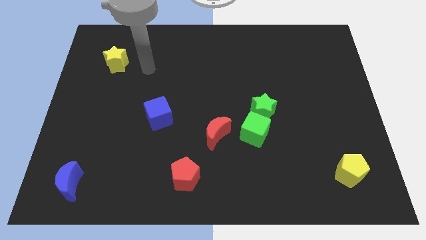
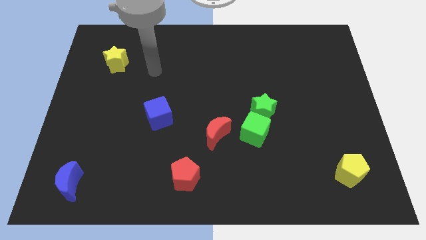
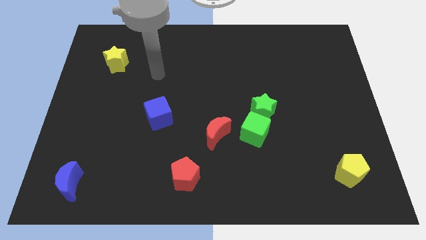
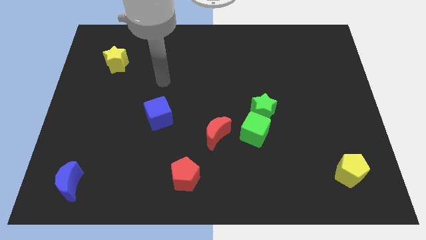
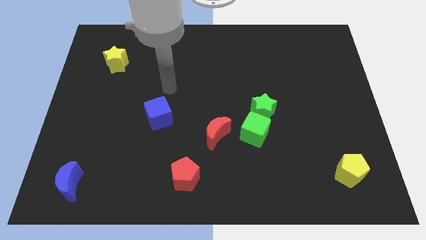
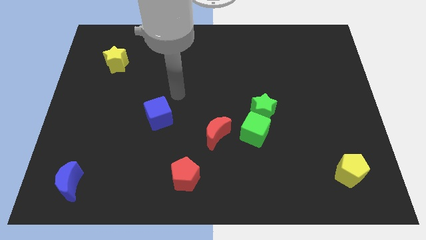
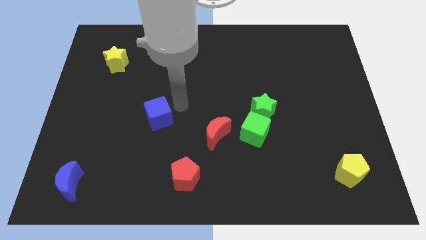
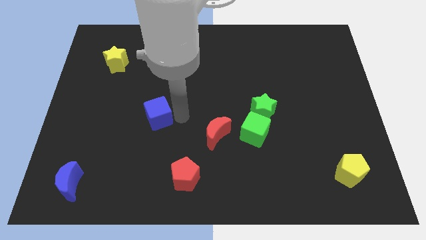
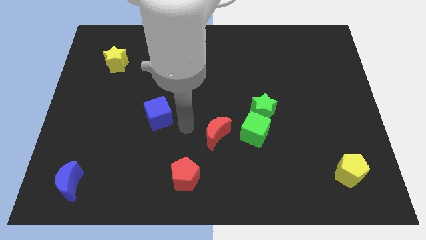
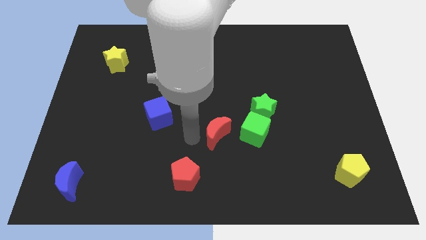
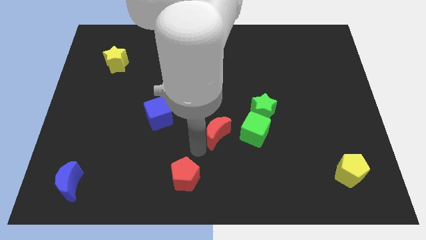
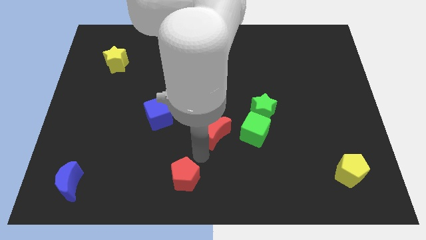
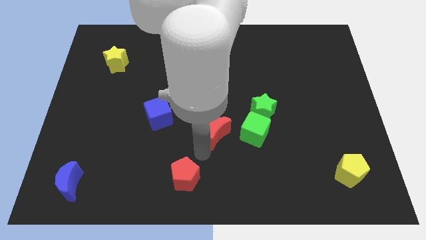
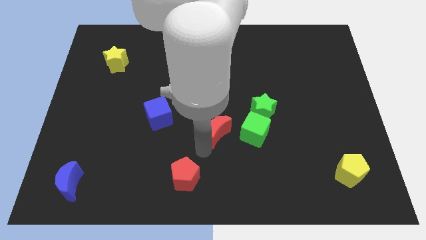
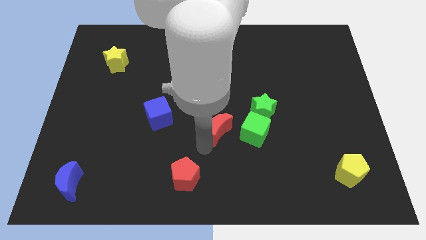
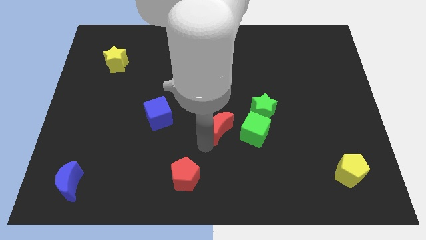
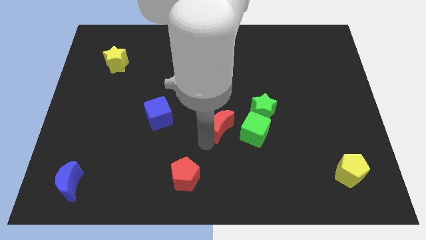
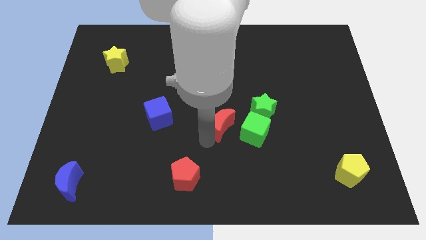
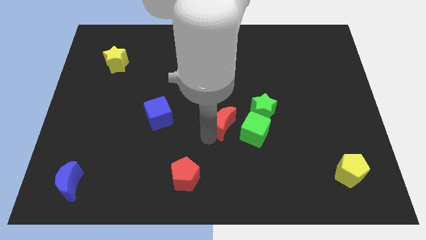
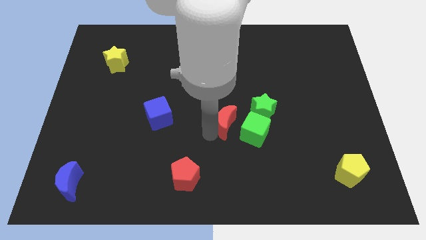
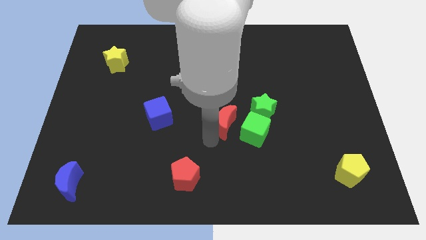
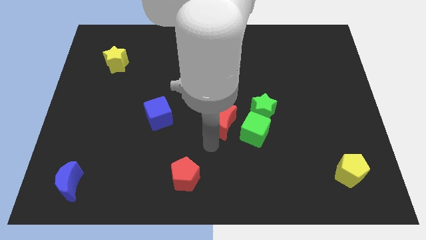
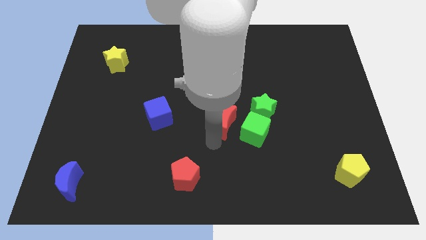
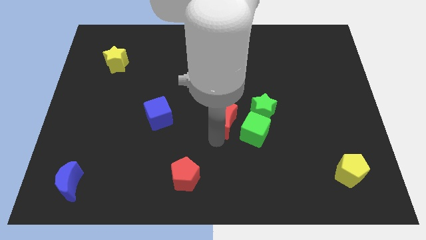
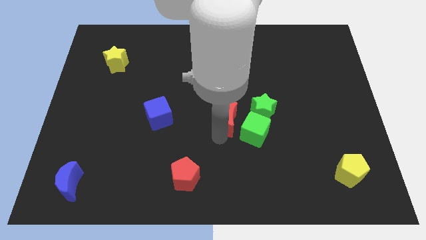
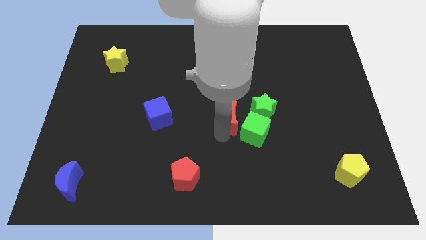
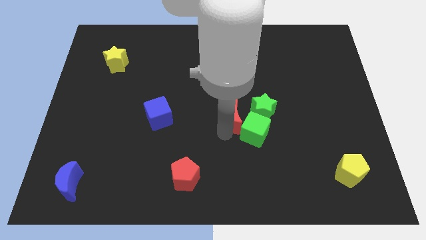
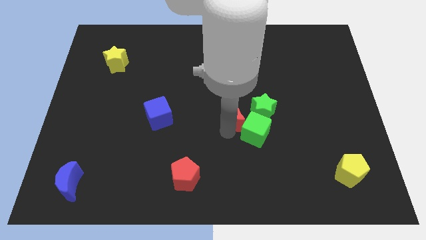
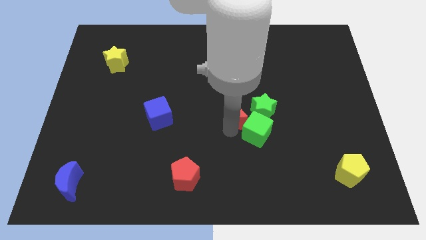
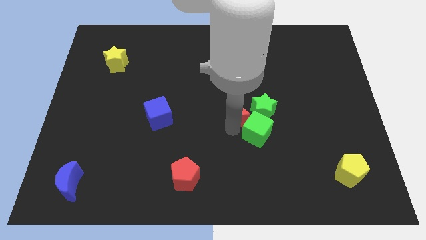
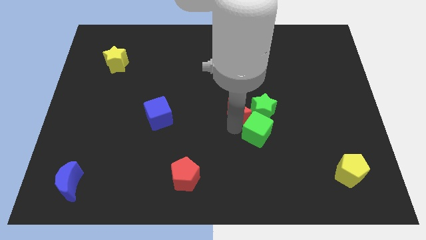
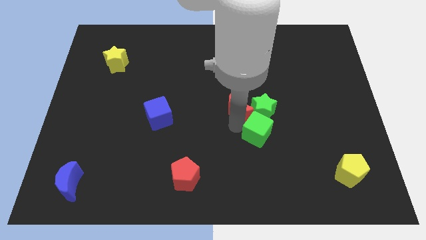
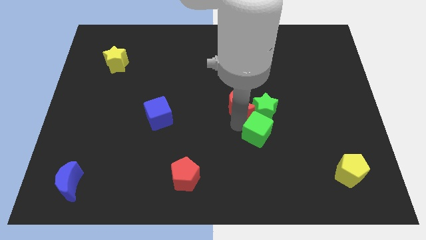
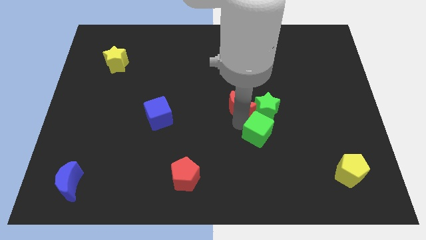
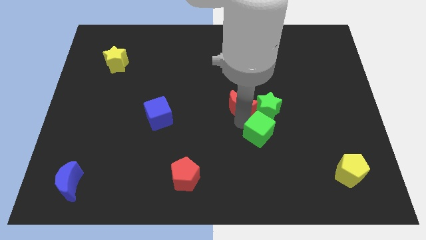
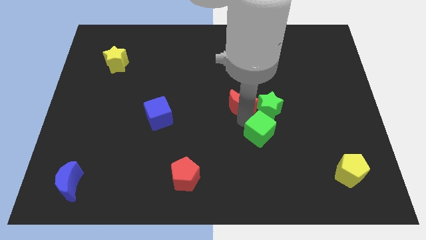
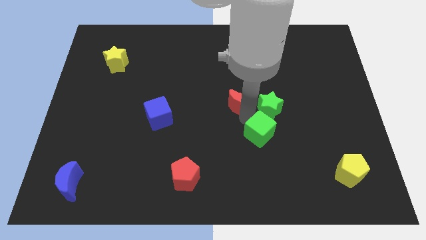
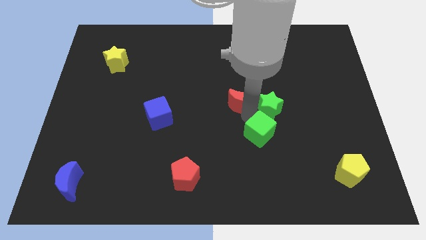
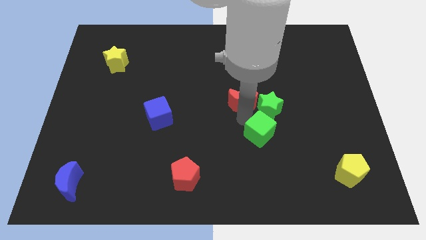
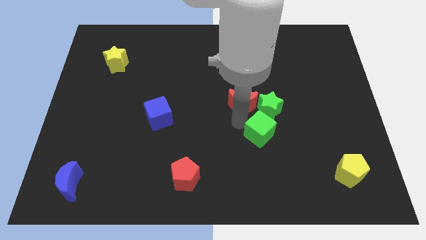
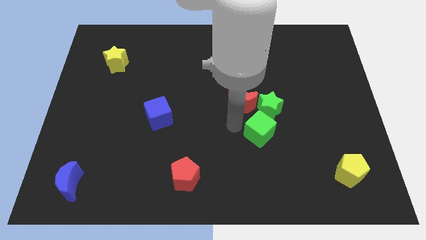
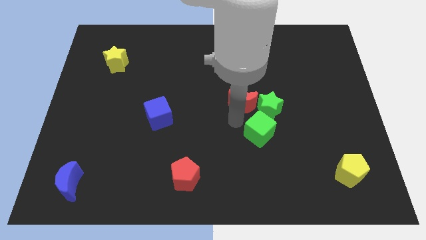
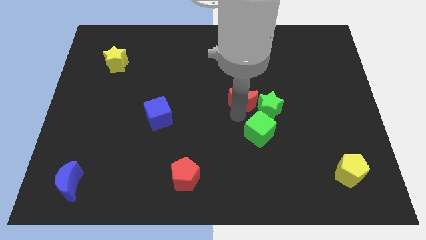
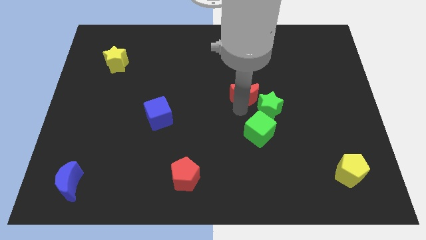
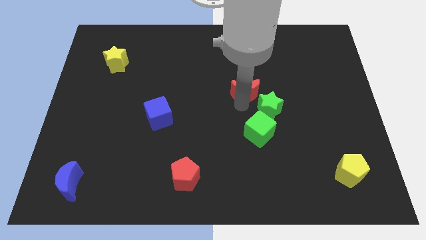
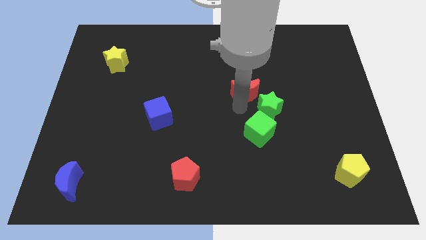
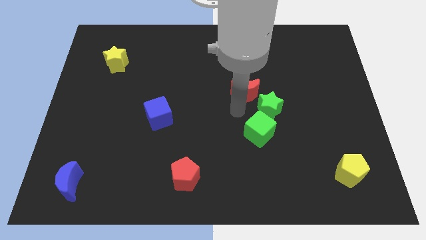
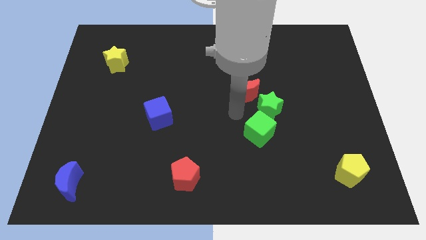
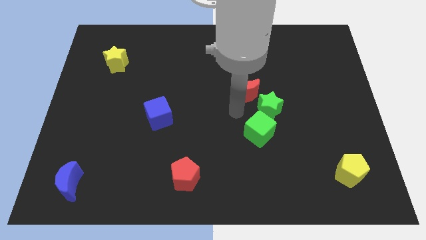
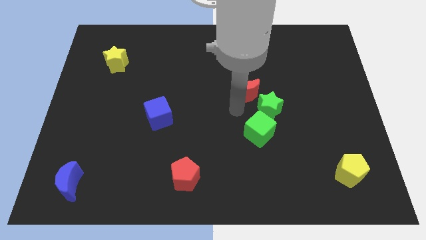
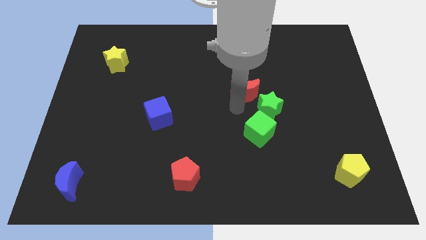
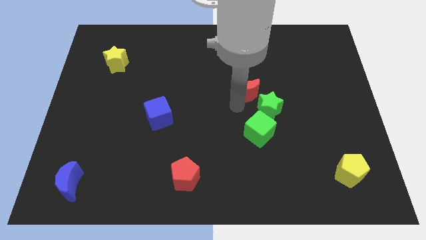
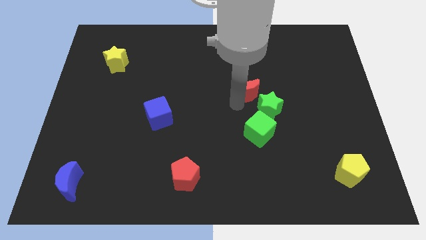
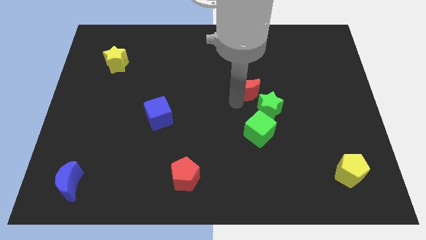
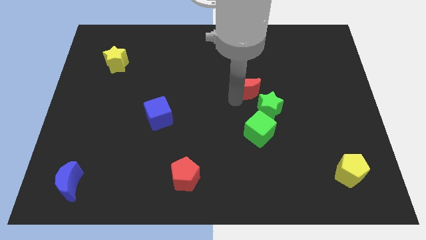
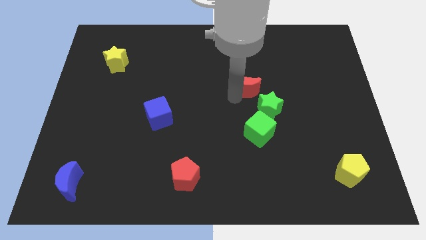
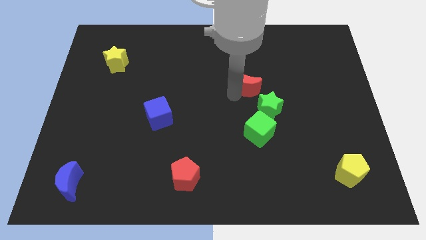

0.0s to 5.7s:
move the red moon to the top side of the green star

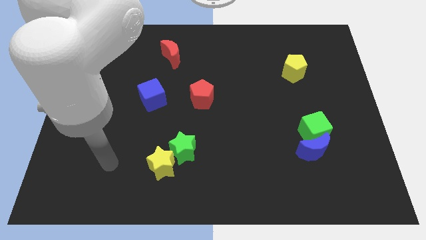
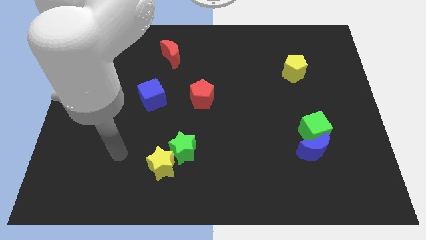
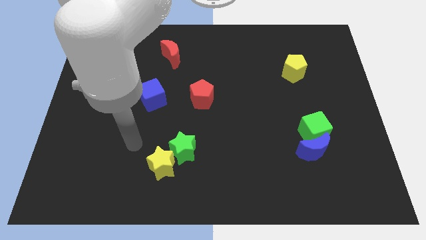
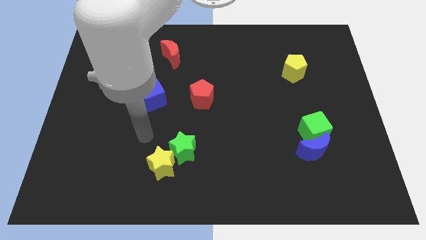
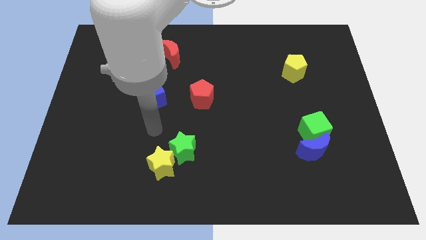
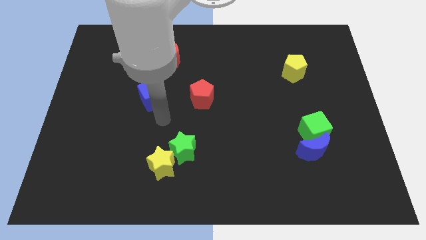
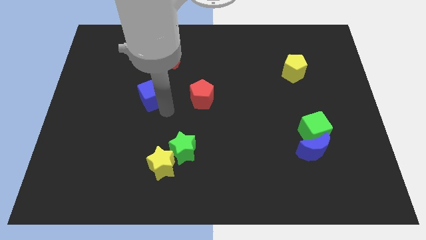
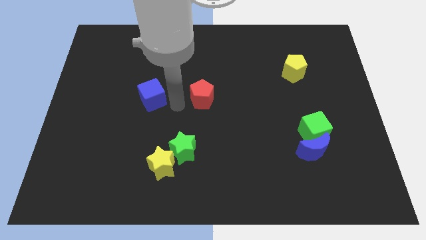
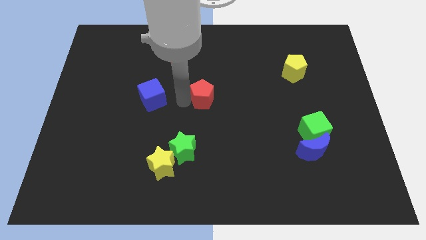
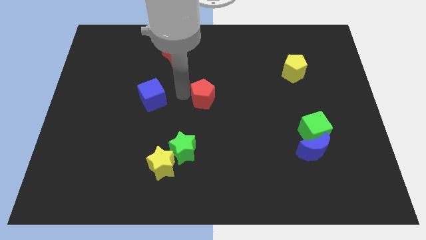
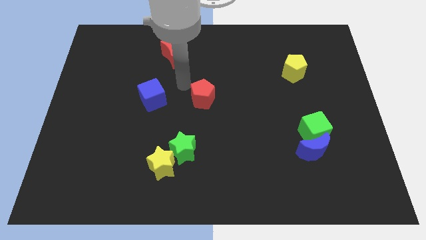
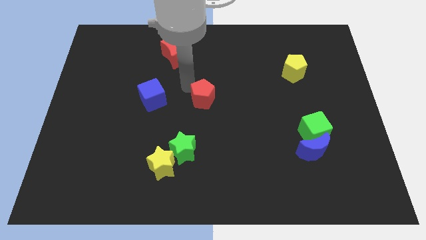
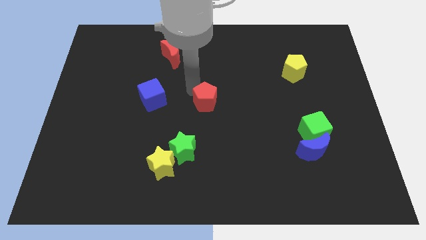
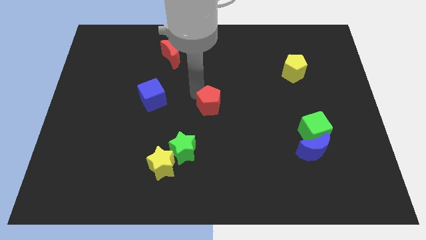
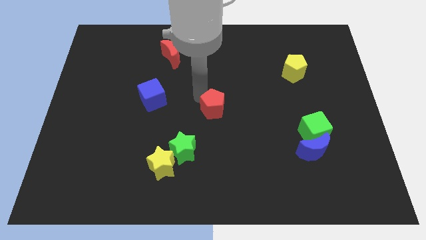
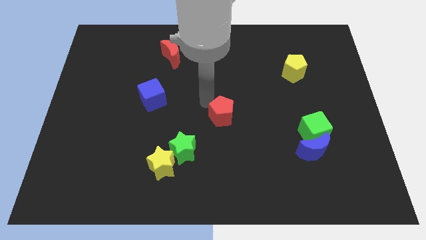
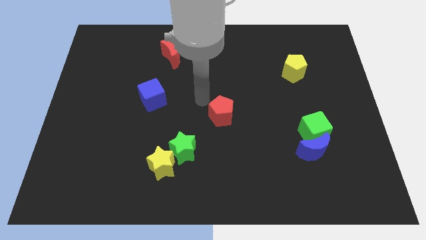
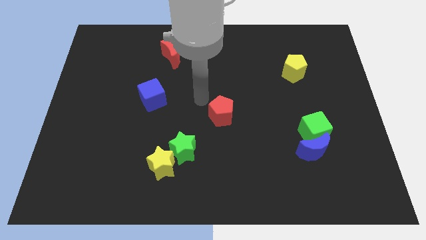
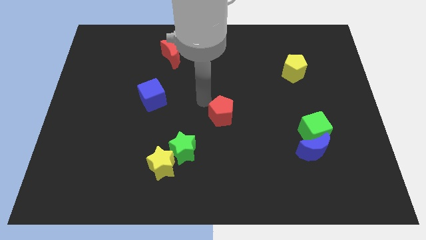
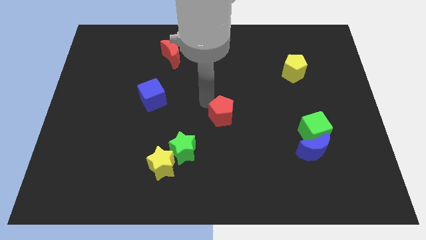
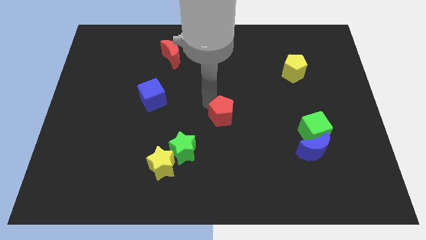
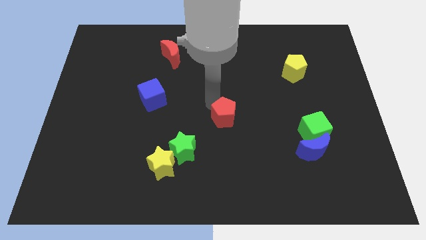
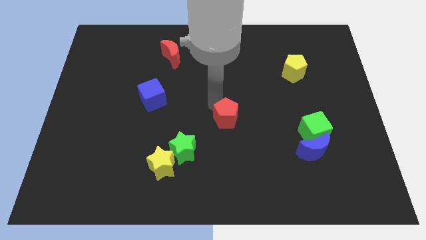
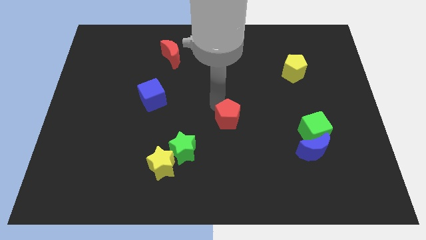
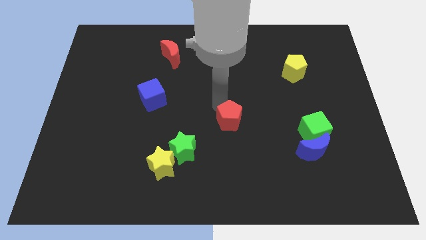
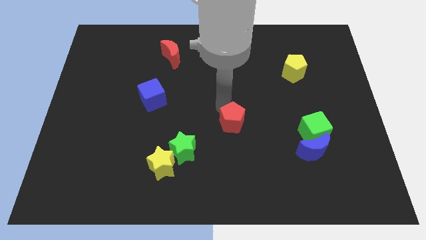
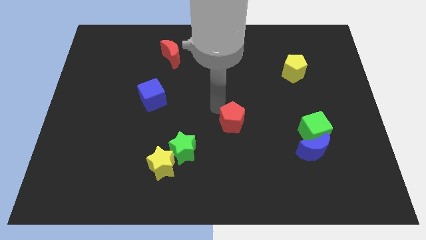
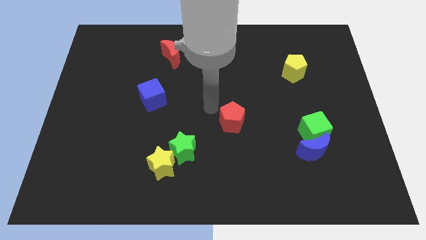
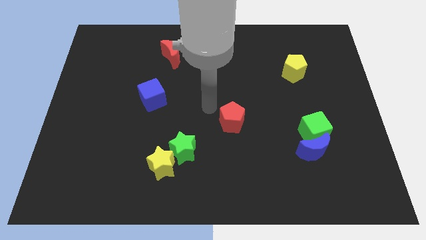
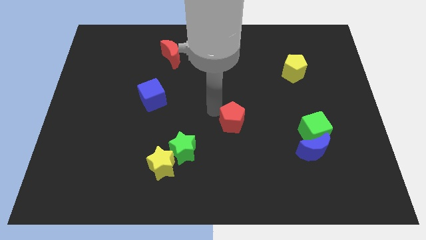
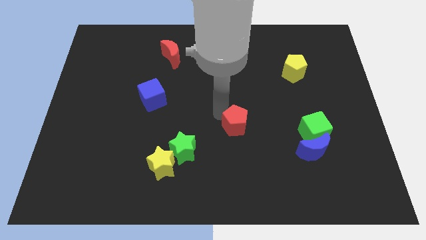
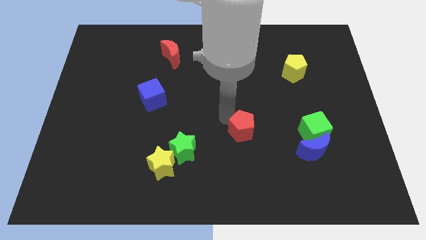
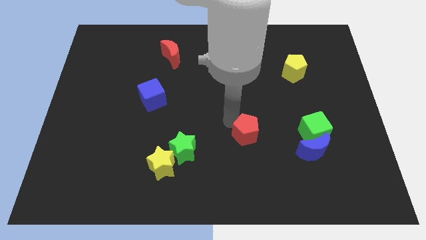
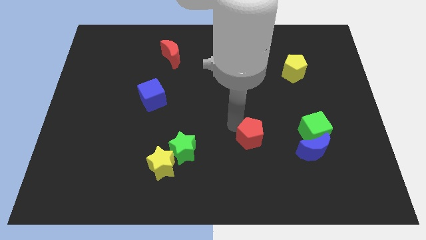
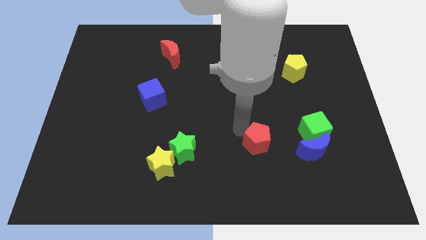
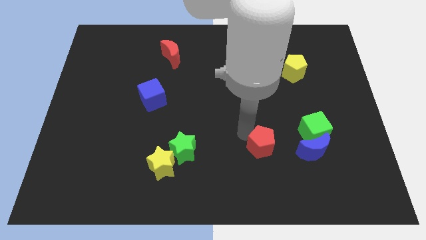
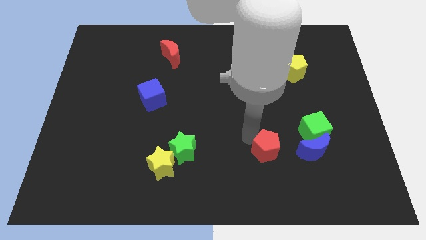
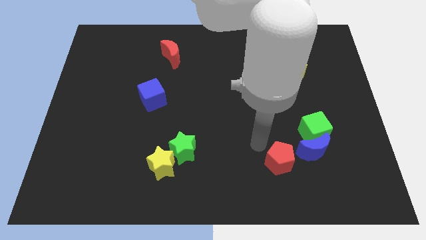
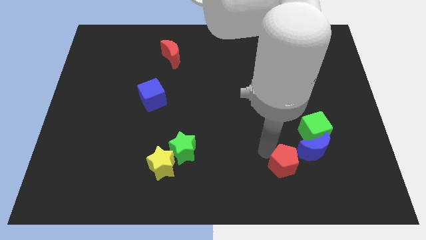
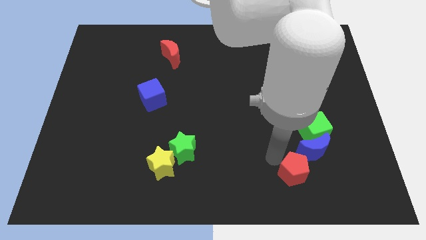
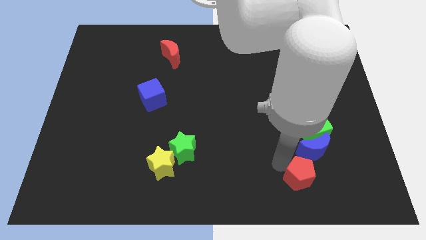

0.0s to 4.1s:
slide the red pentagon to the bottom of the green cube
